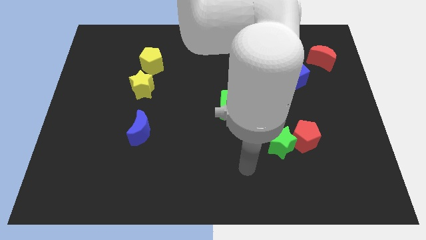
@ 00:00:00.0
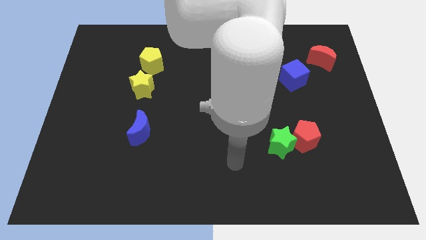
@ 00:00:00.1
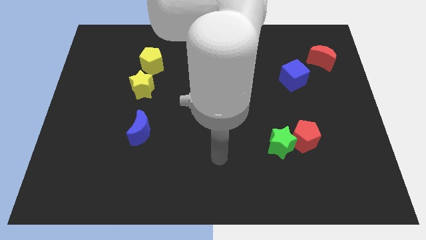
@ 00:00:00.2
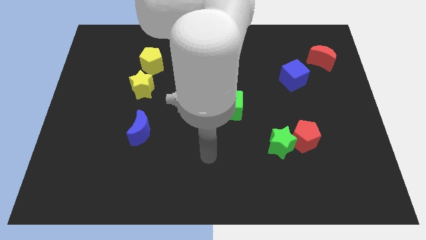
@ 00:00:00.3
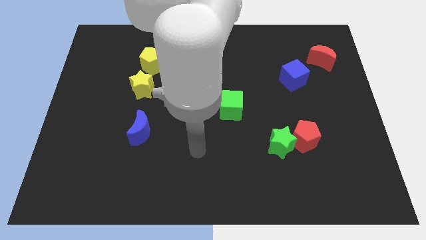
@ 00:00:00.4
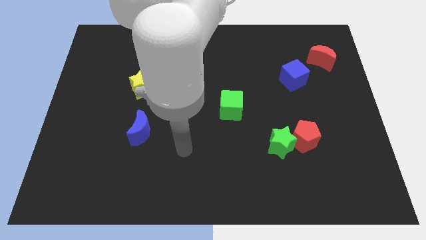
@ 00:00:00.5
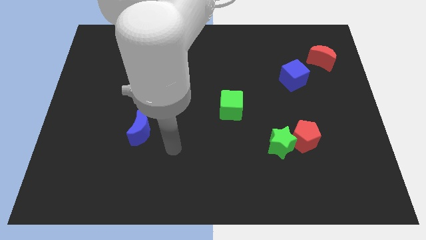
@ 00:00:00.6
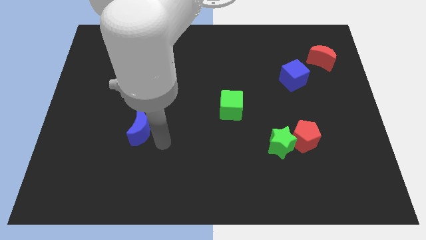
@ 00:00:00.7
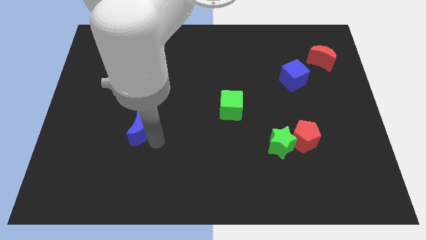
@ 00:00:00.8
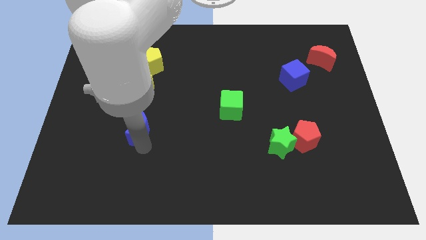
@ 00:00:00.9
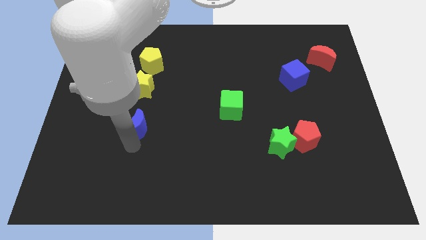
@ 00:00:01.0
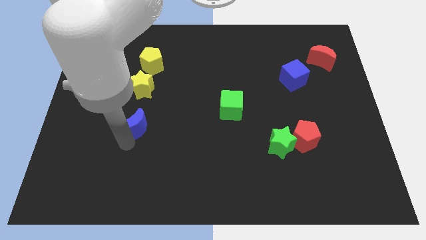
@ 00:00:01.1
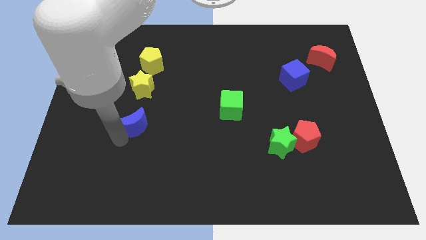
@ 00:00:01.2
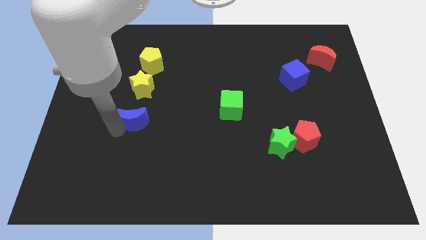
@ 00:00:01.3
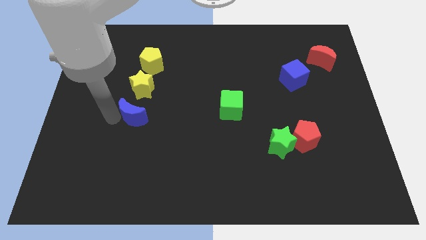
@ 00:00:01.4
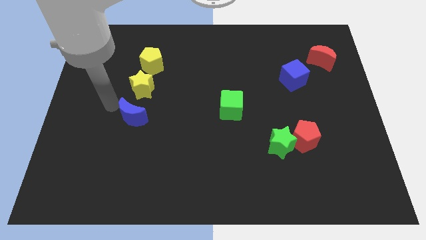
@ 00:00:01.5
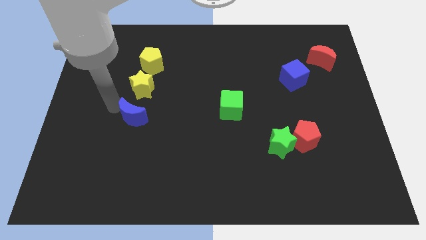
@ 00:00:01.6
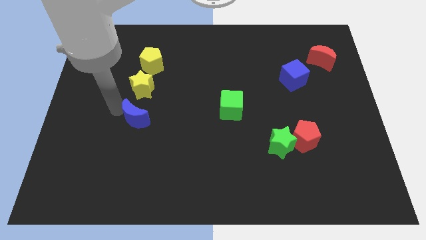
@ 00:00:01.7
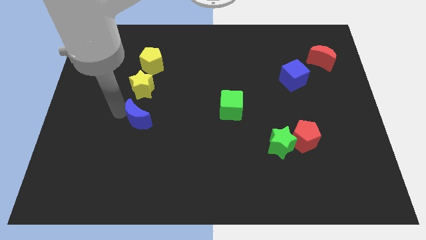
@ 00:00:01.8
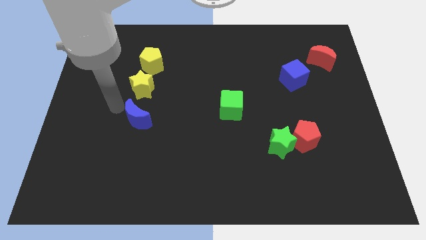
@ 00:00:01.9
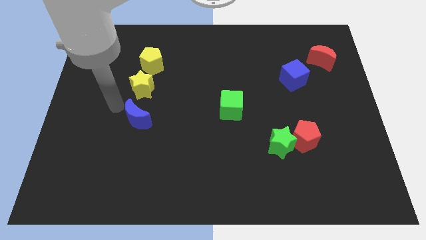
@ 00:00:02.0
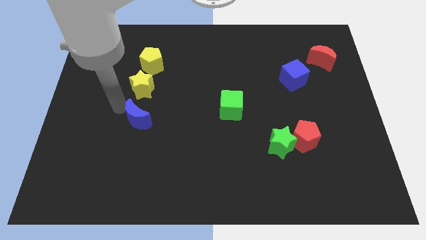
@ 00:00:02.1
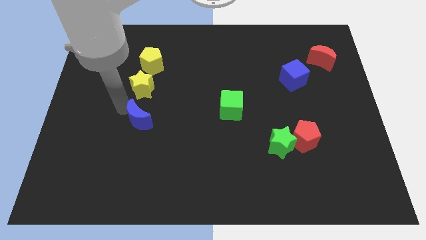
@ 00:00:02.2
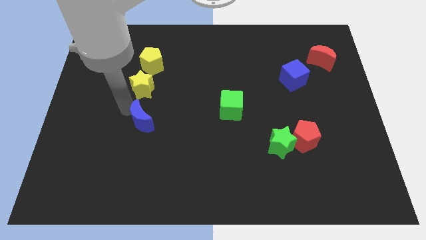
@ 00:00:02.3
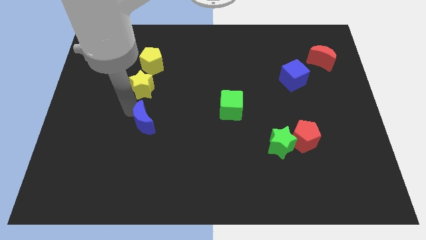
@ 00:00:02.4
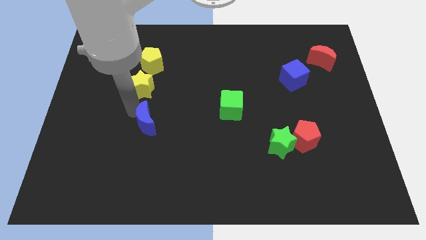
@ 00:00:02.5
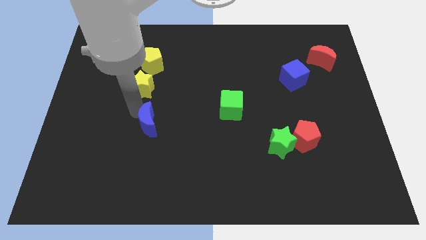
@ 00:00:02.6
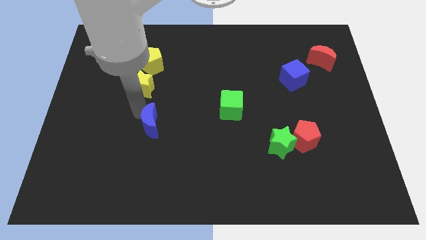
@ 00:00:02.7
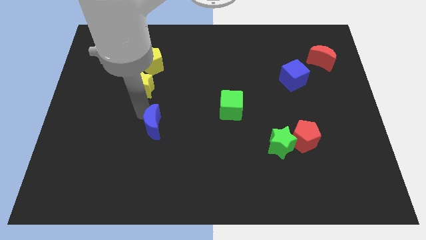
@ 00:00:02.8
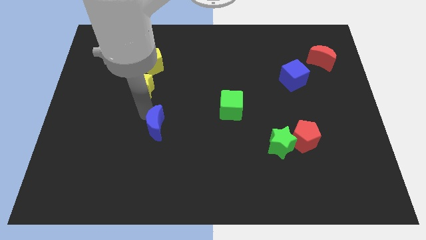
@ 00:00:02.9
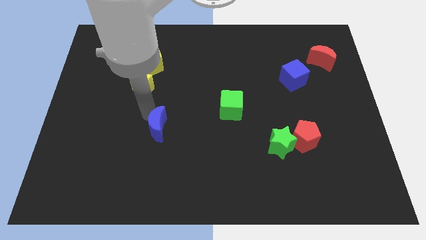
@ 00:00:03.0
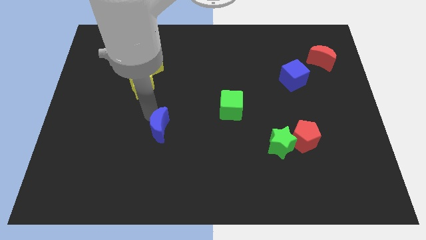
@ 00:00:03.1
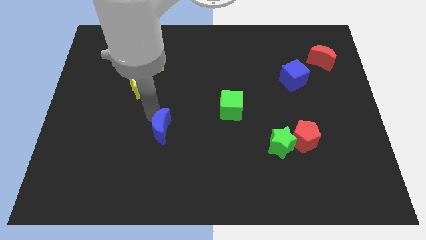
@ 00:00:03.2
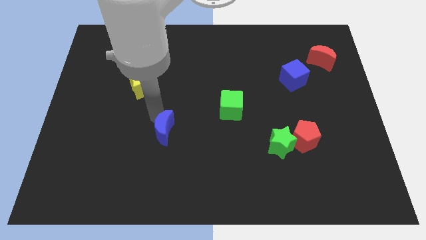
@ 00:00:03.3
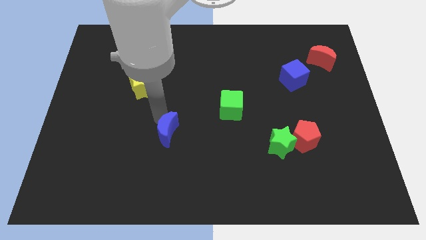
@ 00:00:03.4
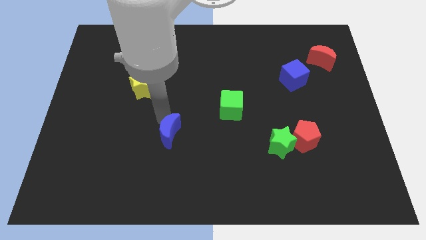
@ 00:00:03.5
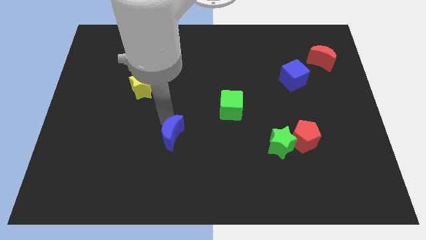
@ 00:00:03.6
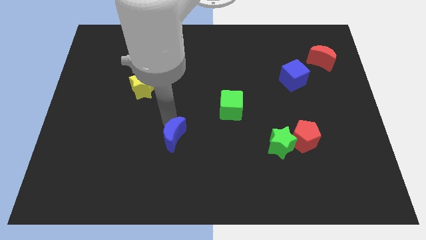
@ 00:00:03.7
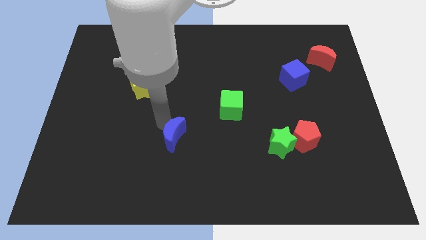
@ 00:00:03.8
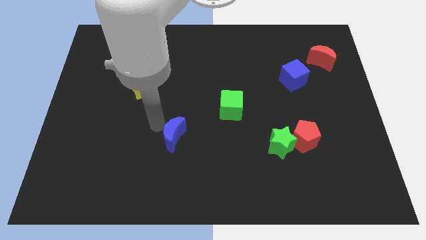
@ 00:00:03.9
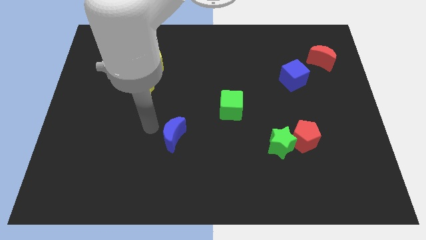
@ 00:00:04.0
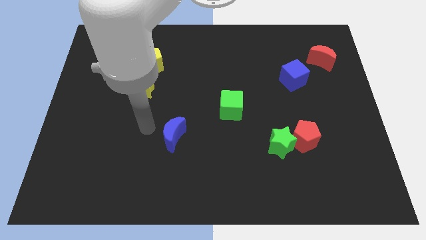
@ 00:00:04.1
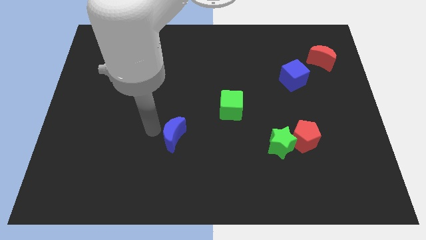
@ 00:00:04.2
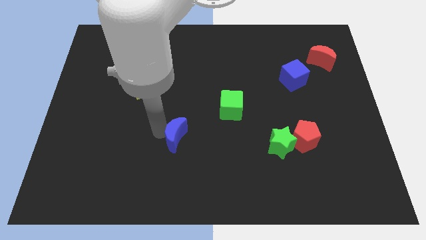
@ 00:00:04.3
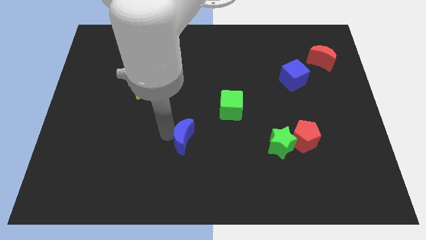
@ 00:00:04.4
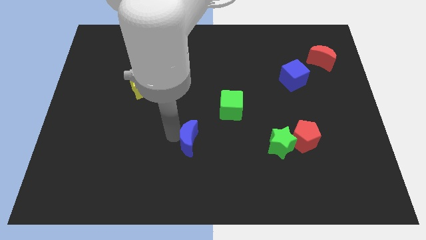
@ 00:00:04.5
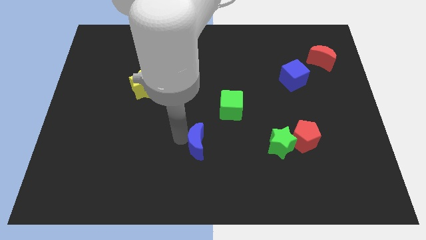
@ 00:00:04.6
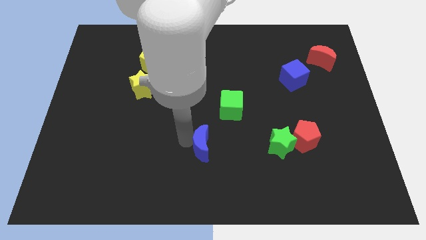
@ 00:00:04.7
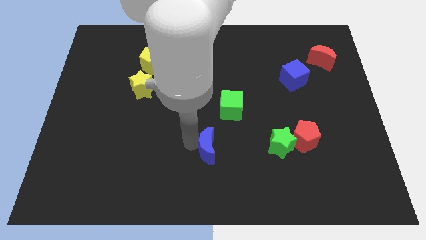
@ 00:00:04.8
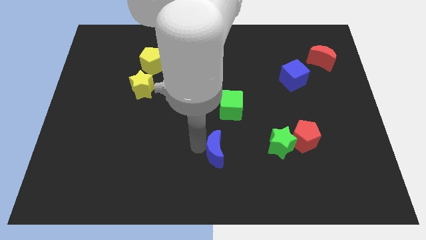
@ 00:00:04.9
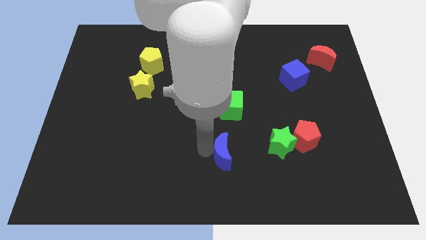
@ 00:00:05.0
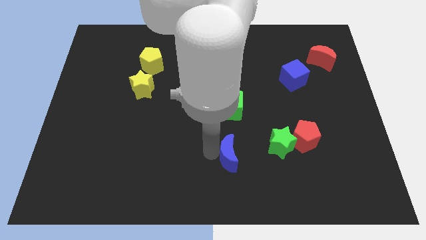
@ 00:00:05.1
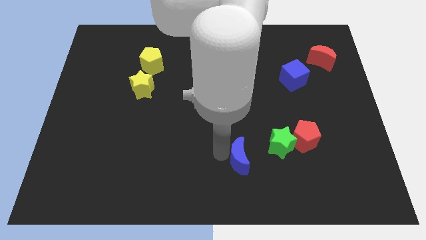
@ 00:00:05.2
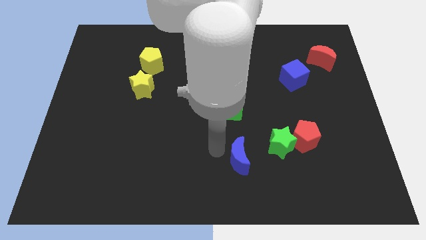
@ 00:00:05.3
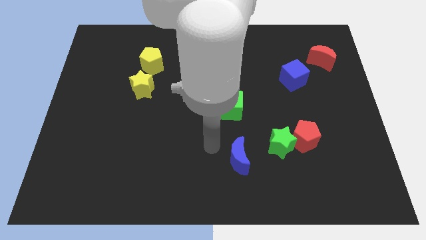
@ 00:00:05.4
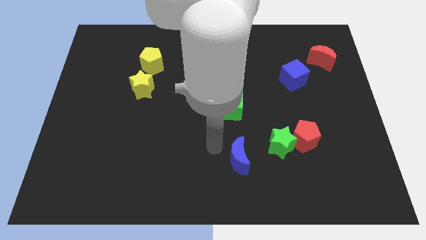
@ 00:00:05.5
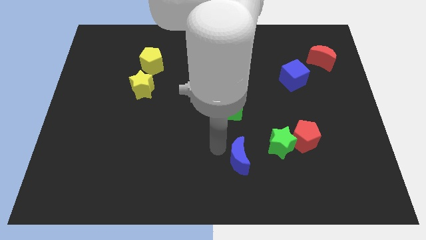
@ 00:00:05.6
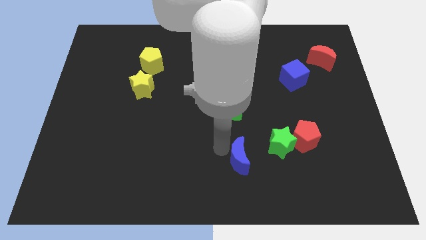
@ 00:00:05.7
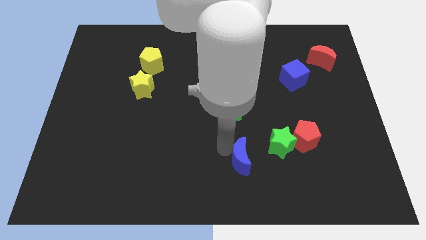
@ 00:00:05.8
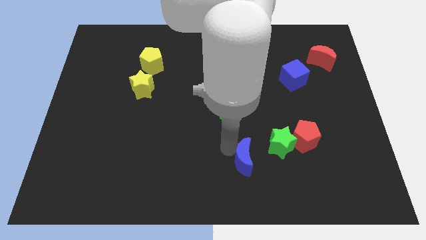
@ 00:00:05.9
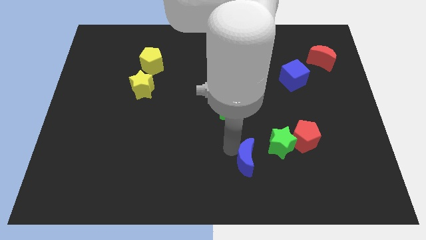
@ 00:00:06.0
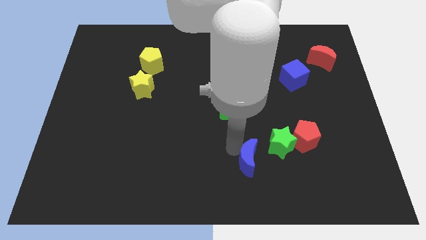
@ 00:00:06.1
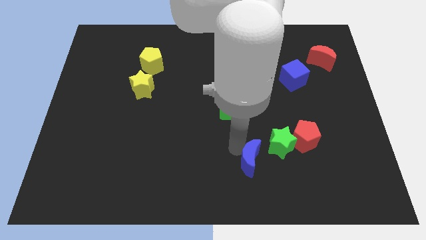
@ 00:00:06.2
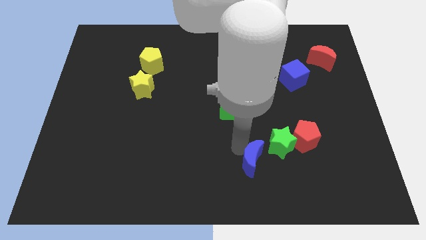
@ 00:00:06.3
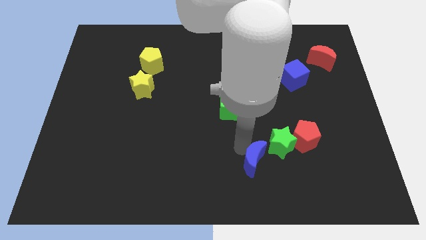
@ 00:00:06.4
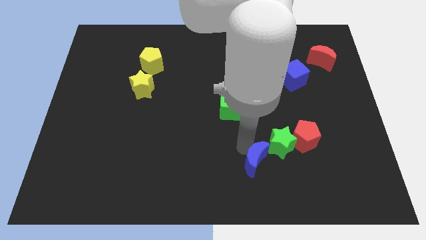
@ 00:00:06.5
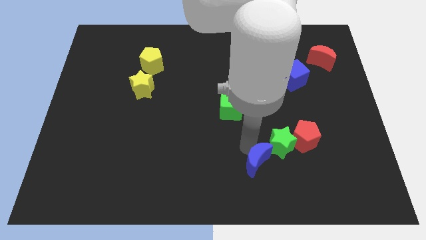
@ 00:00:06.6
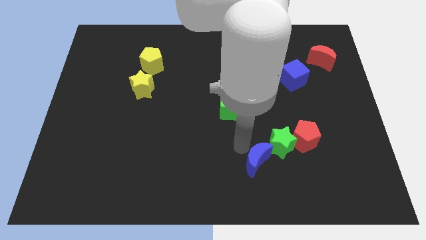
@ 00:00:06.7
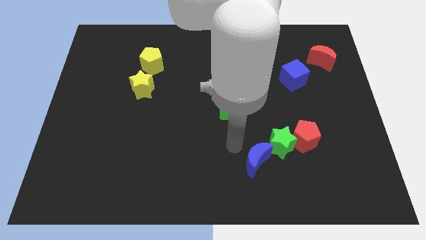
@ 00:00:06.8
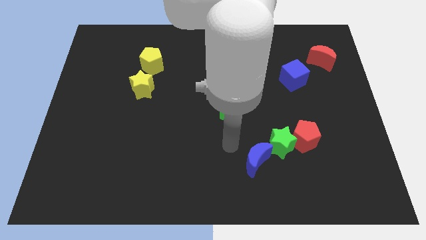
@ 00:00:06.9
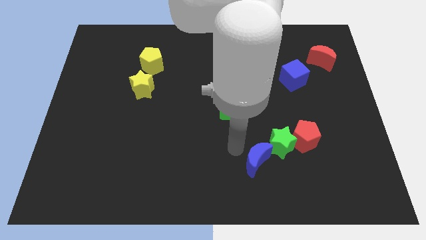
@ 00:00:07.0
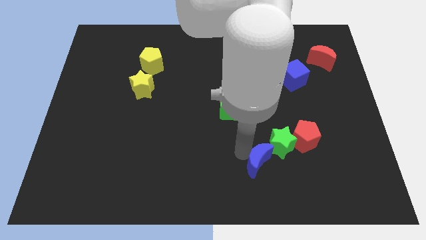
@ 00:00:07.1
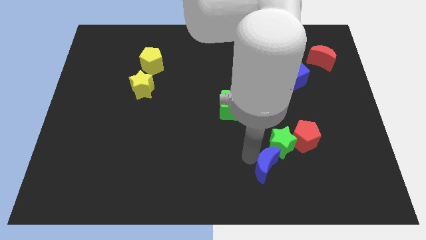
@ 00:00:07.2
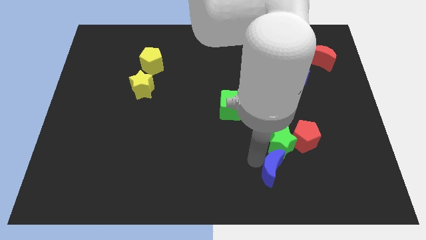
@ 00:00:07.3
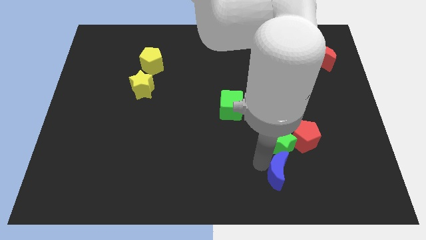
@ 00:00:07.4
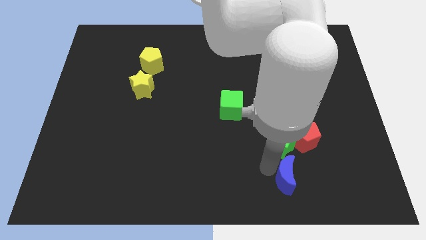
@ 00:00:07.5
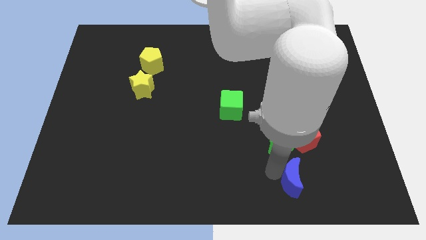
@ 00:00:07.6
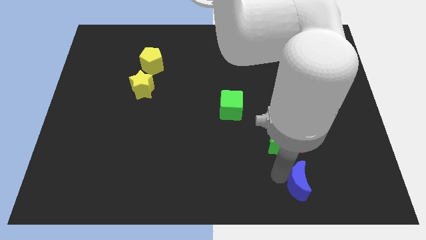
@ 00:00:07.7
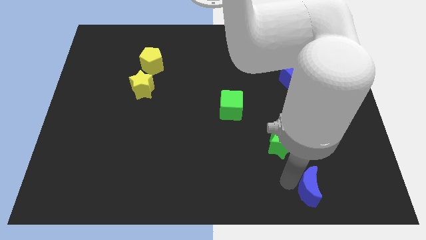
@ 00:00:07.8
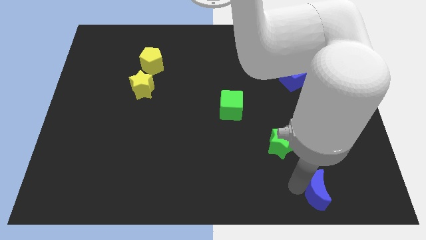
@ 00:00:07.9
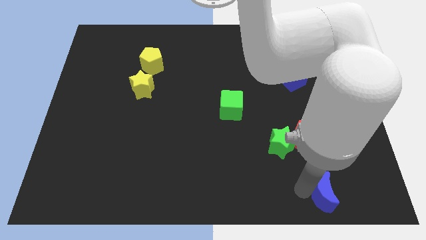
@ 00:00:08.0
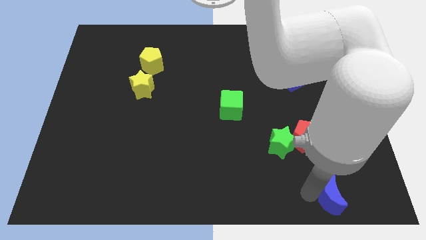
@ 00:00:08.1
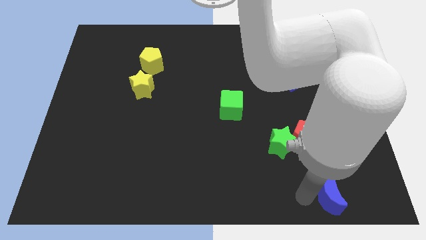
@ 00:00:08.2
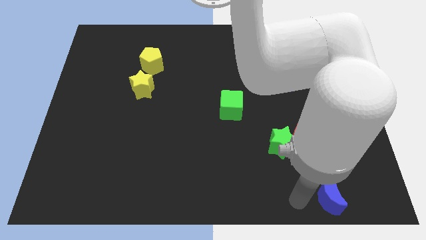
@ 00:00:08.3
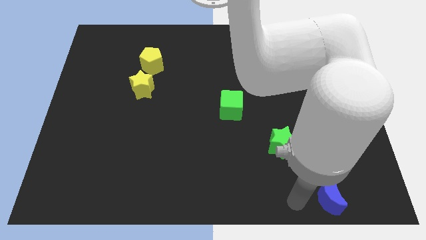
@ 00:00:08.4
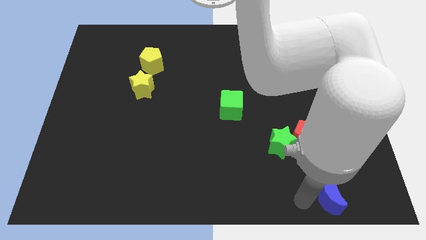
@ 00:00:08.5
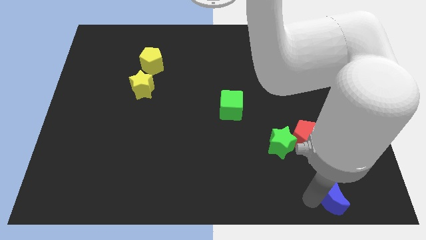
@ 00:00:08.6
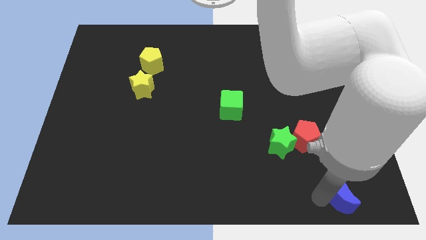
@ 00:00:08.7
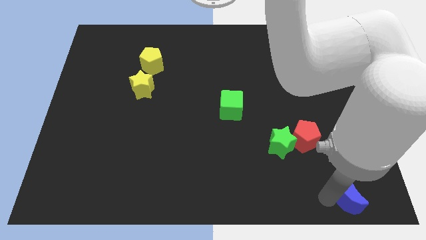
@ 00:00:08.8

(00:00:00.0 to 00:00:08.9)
move the blue moon to the bottom right corner
